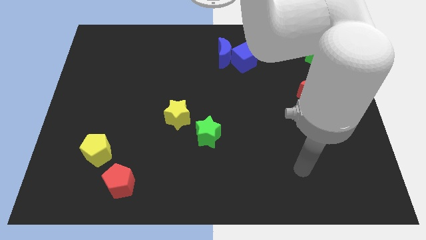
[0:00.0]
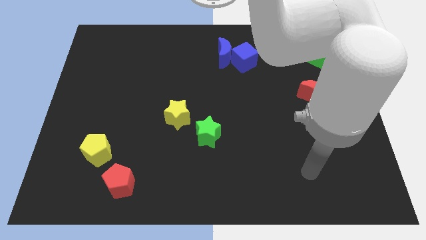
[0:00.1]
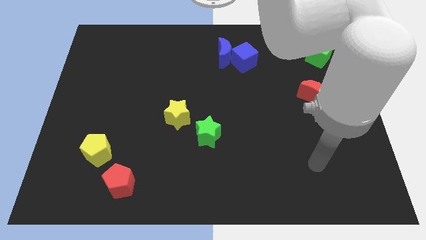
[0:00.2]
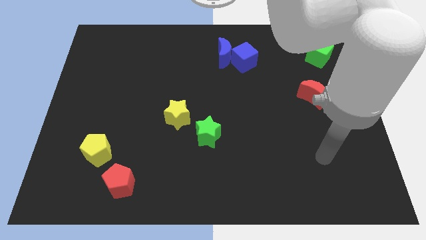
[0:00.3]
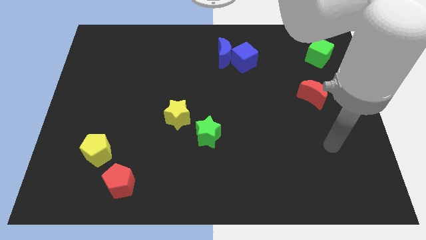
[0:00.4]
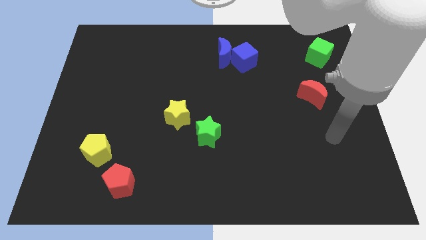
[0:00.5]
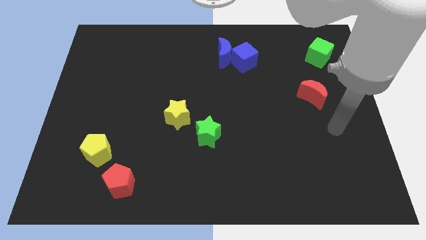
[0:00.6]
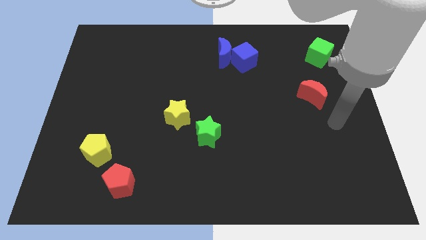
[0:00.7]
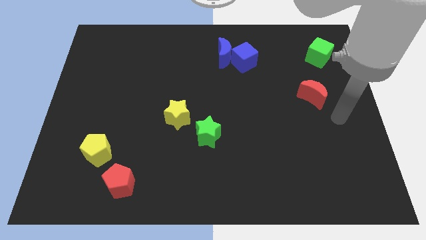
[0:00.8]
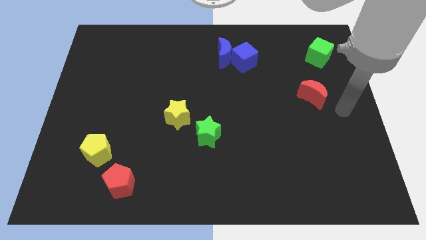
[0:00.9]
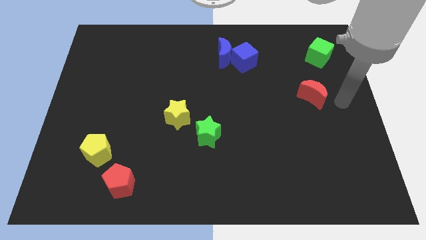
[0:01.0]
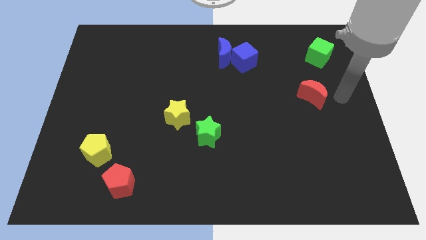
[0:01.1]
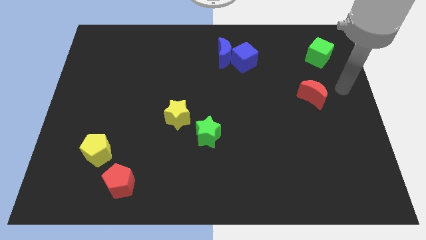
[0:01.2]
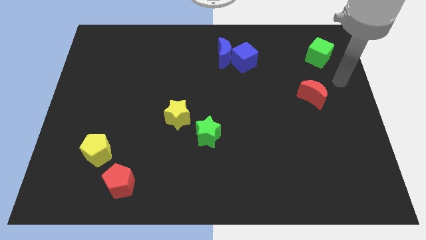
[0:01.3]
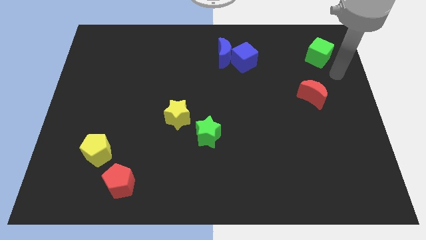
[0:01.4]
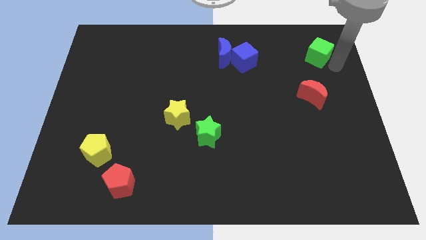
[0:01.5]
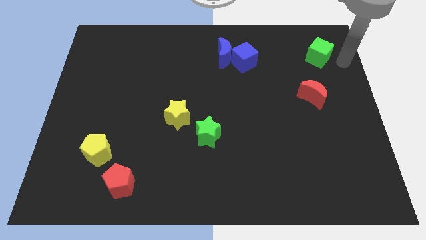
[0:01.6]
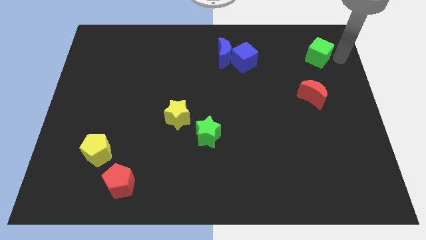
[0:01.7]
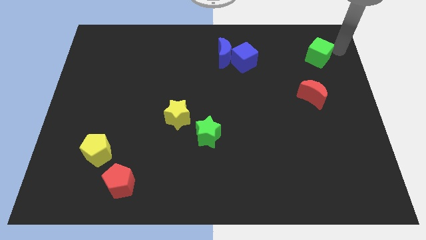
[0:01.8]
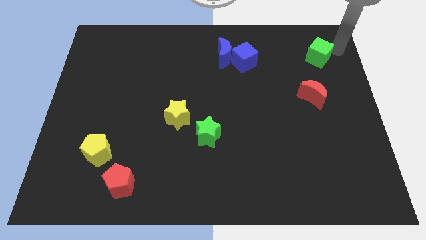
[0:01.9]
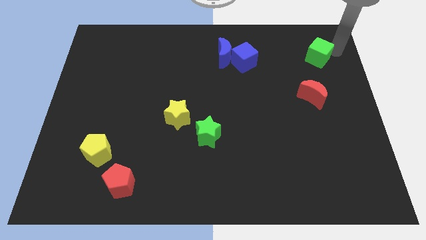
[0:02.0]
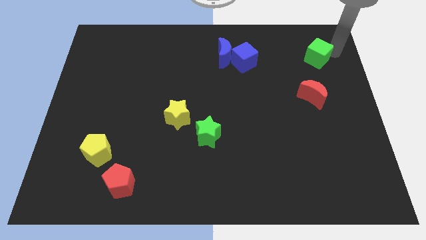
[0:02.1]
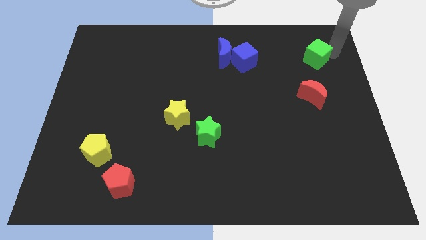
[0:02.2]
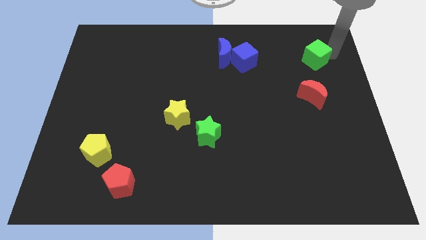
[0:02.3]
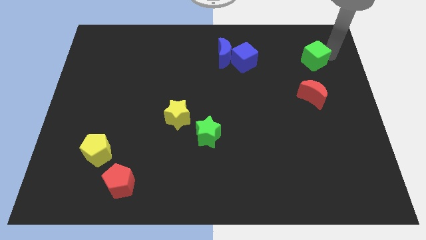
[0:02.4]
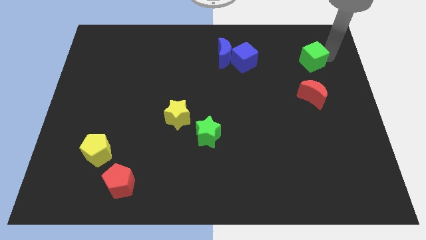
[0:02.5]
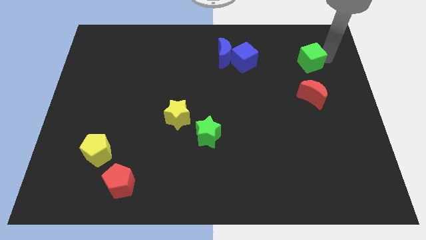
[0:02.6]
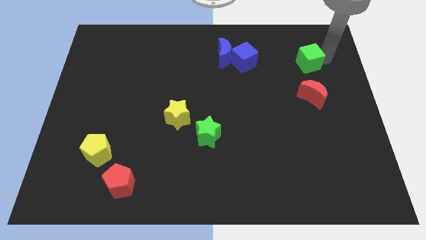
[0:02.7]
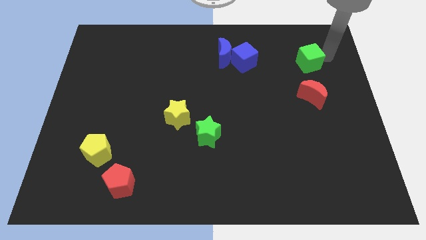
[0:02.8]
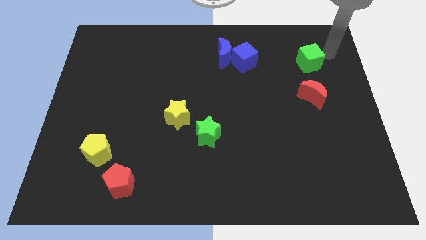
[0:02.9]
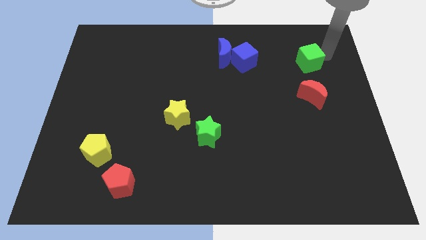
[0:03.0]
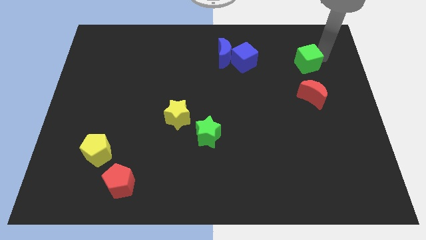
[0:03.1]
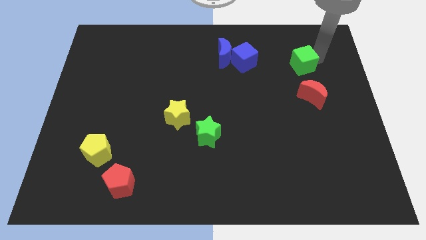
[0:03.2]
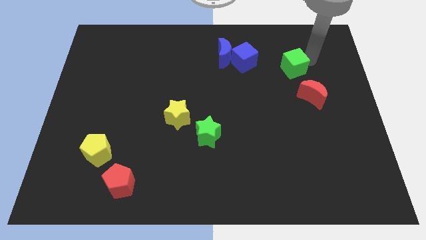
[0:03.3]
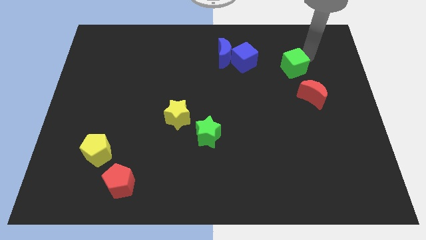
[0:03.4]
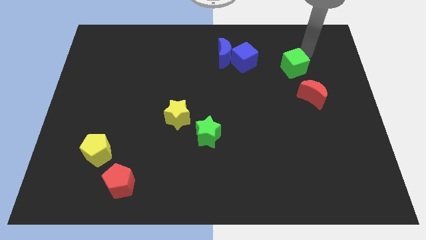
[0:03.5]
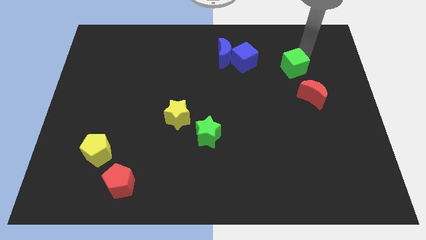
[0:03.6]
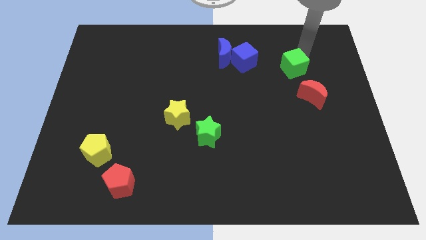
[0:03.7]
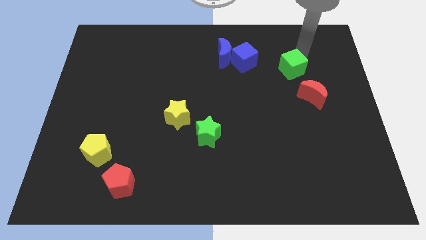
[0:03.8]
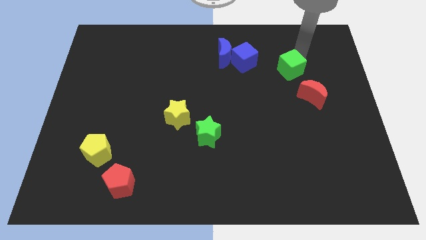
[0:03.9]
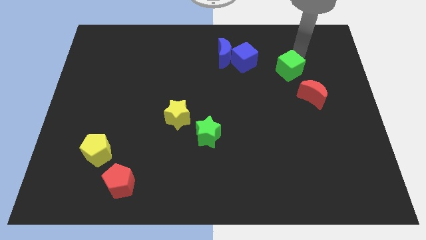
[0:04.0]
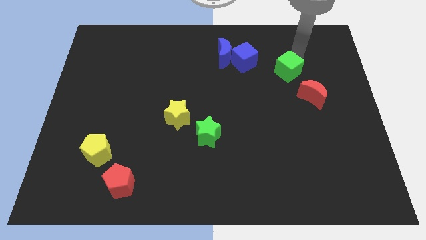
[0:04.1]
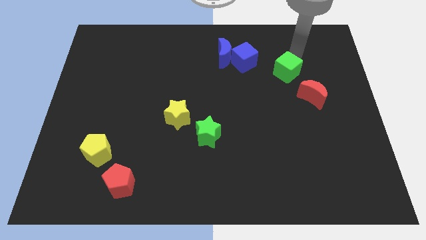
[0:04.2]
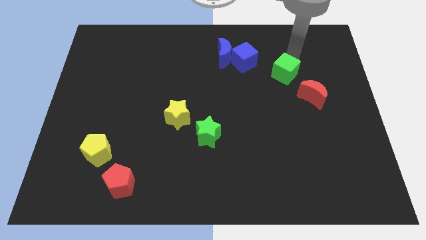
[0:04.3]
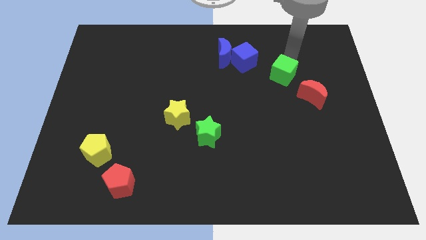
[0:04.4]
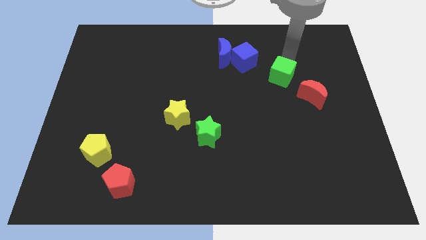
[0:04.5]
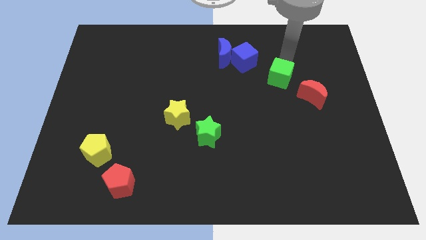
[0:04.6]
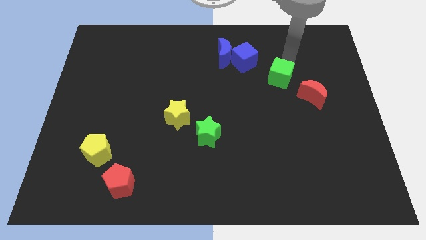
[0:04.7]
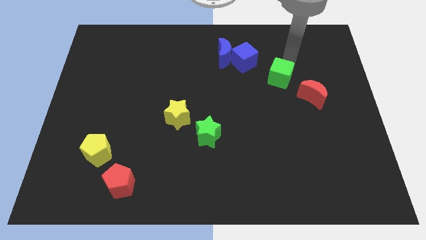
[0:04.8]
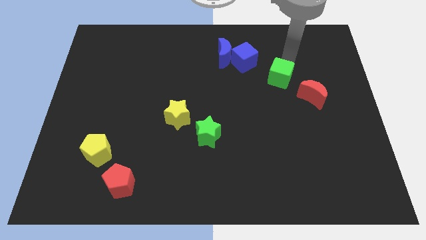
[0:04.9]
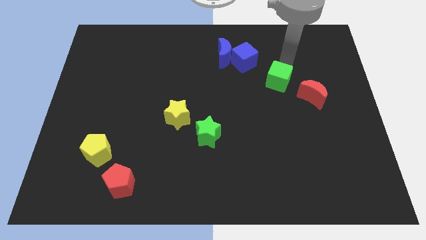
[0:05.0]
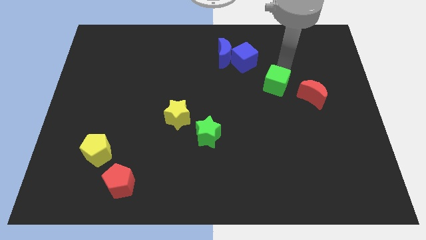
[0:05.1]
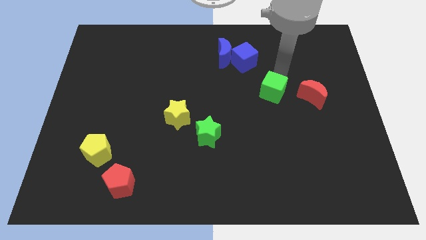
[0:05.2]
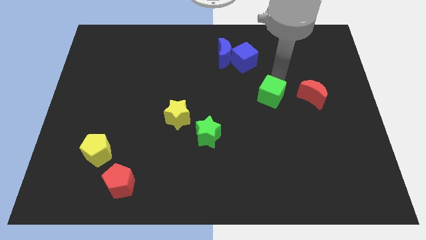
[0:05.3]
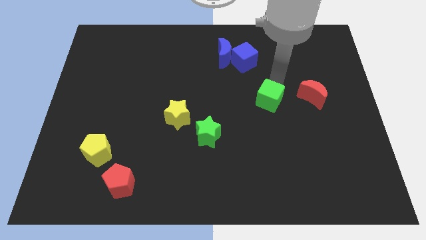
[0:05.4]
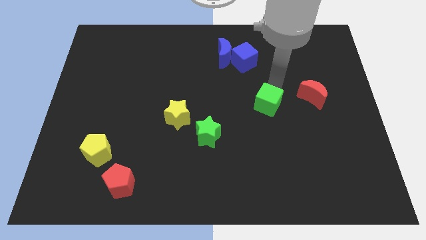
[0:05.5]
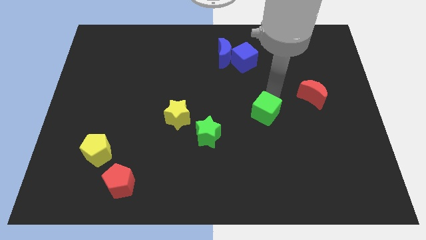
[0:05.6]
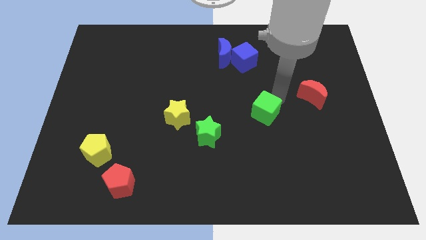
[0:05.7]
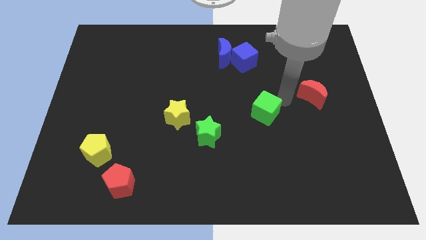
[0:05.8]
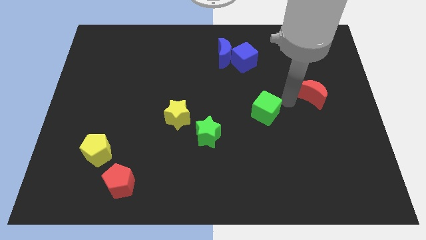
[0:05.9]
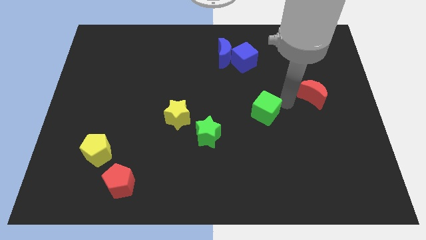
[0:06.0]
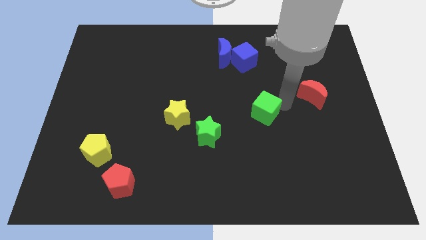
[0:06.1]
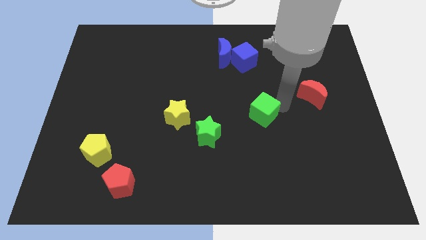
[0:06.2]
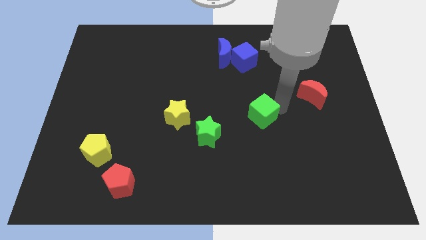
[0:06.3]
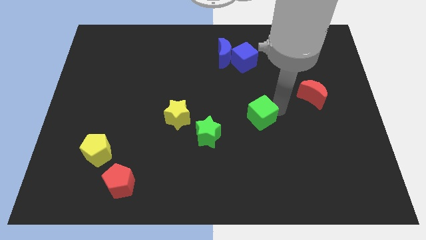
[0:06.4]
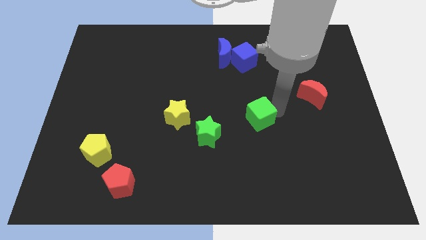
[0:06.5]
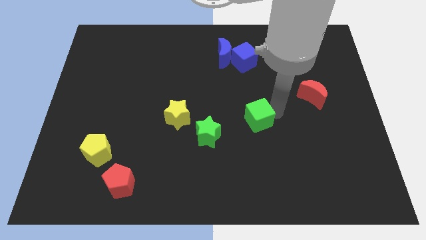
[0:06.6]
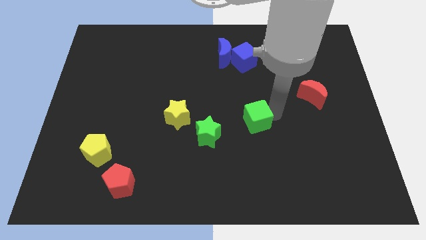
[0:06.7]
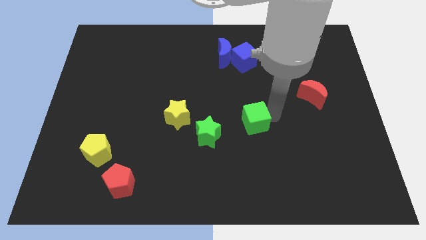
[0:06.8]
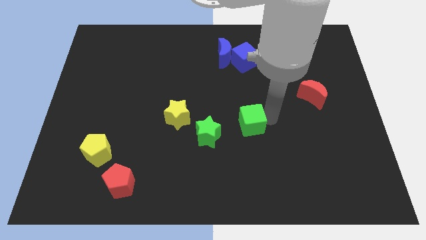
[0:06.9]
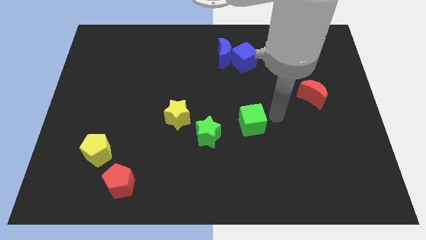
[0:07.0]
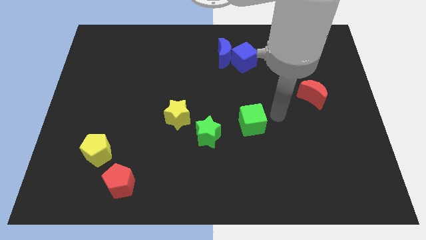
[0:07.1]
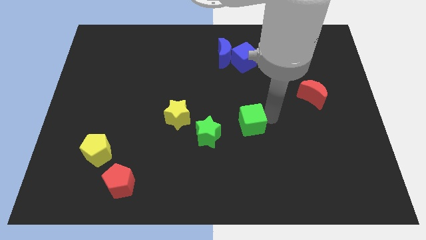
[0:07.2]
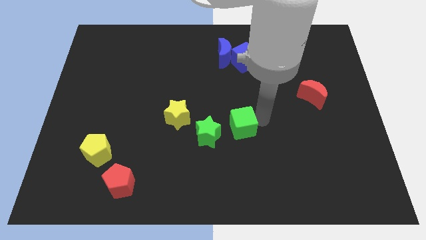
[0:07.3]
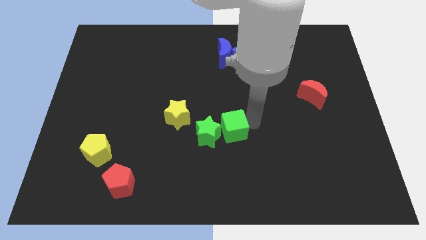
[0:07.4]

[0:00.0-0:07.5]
move the green cube next to the green star
